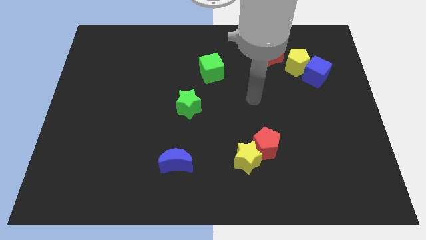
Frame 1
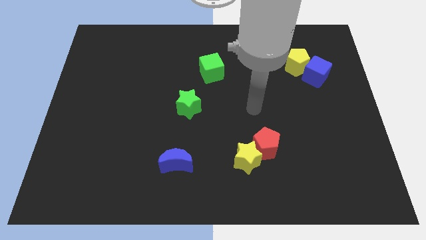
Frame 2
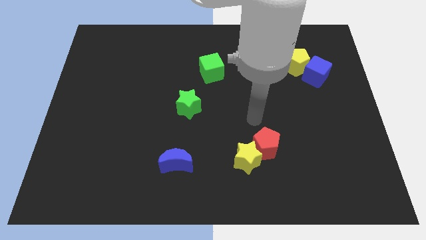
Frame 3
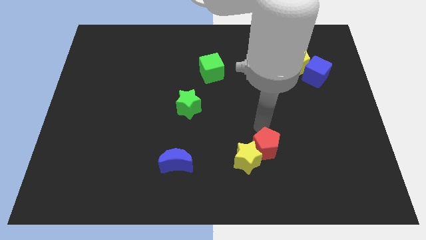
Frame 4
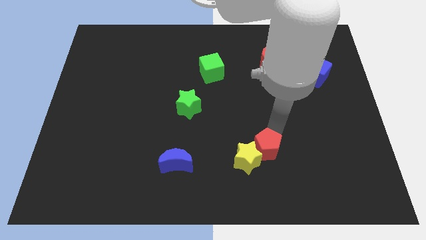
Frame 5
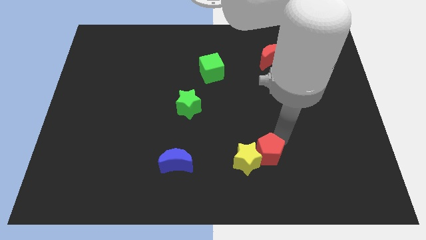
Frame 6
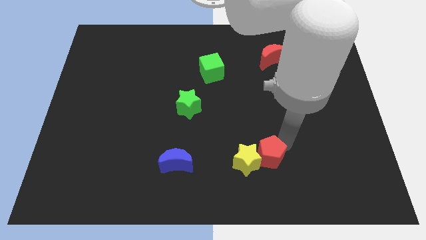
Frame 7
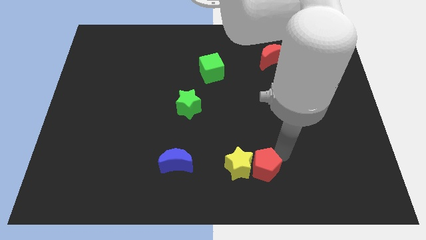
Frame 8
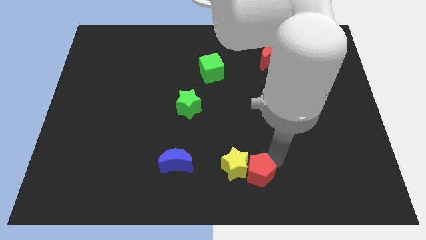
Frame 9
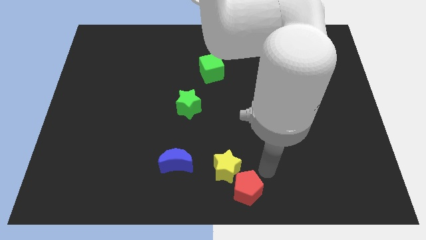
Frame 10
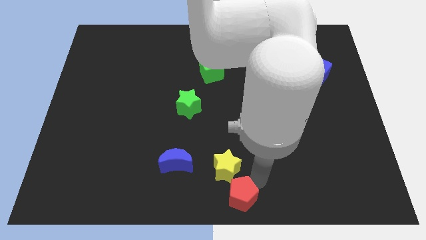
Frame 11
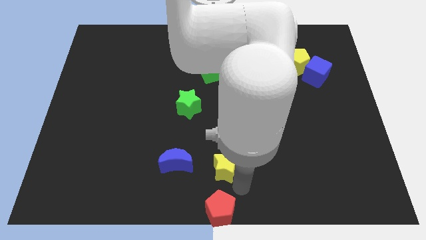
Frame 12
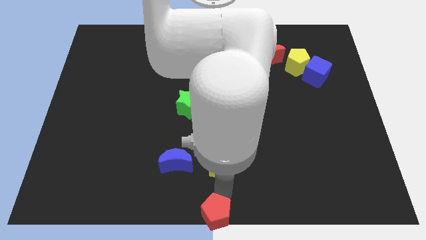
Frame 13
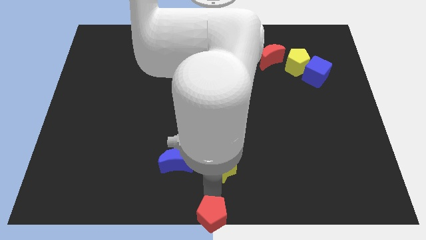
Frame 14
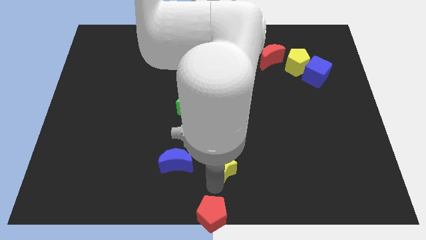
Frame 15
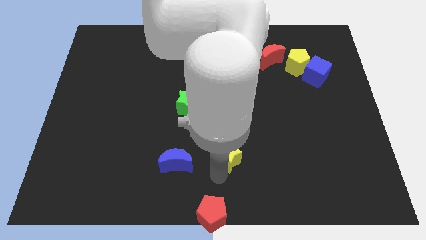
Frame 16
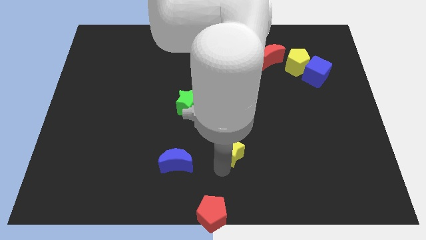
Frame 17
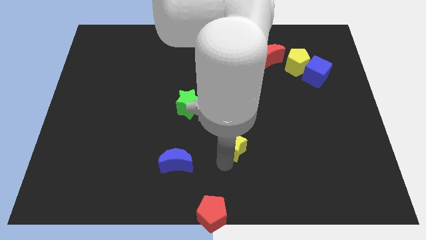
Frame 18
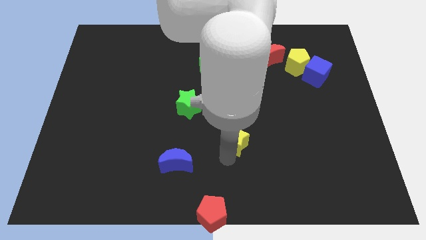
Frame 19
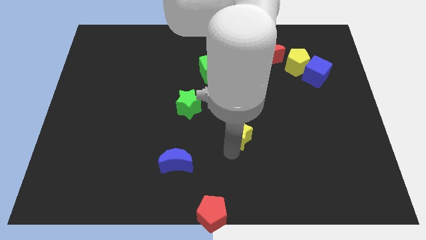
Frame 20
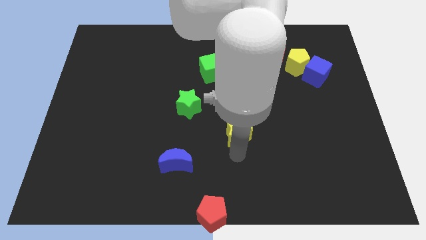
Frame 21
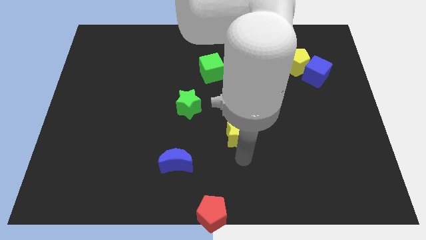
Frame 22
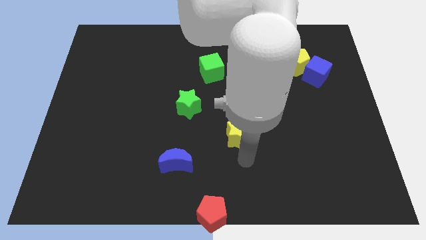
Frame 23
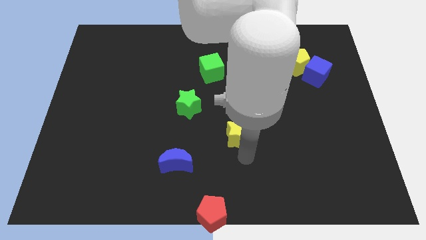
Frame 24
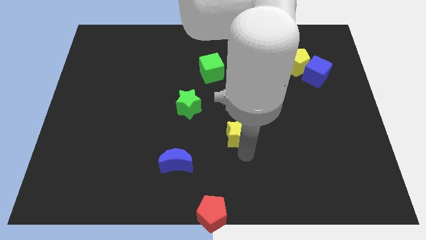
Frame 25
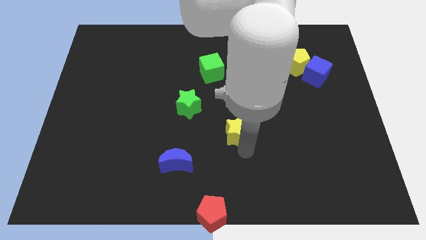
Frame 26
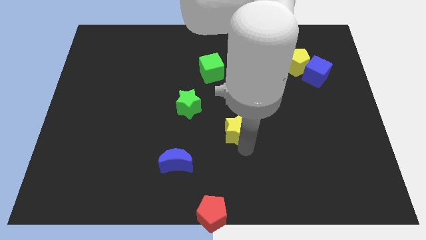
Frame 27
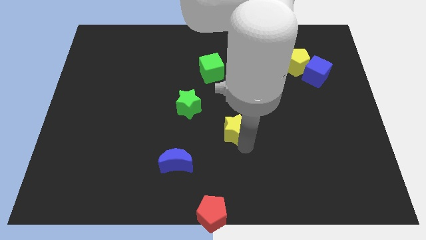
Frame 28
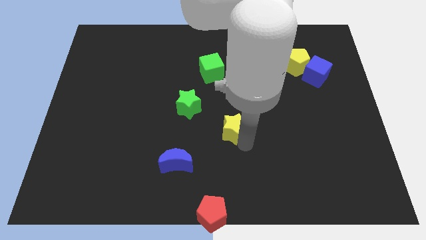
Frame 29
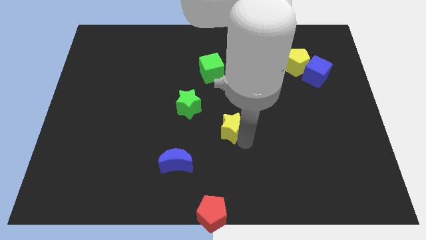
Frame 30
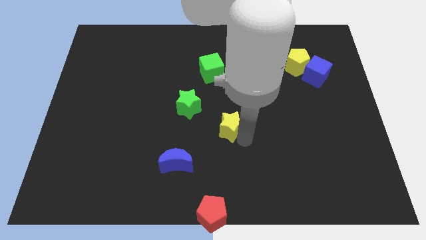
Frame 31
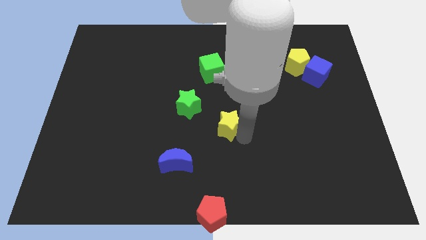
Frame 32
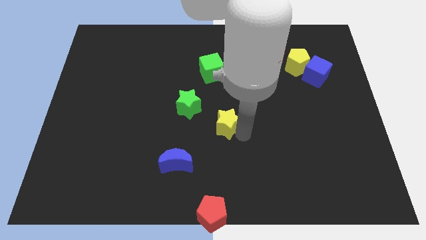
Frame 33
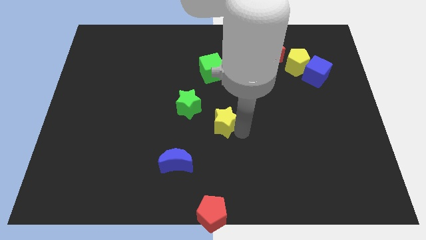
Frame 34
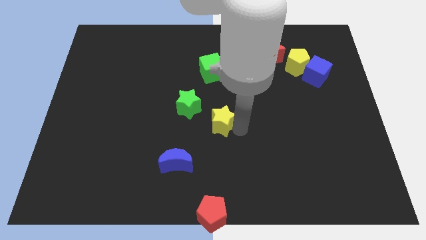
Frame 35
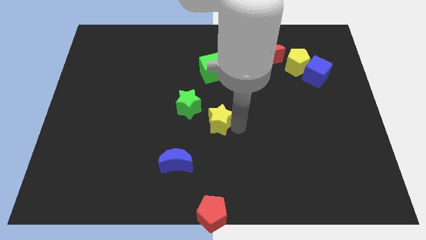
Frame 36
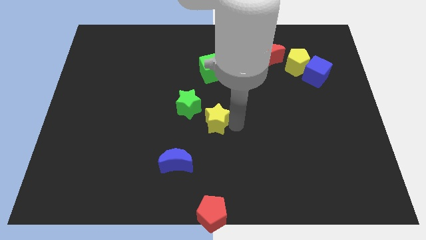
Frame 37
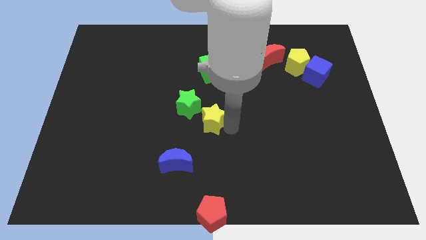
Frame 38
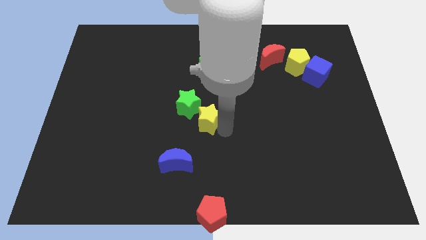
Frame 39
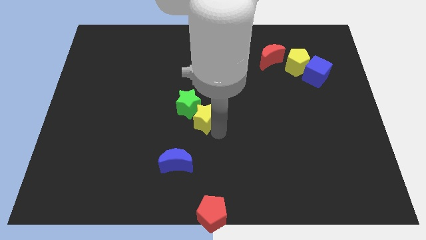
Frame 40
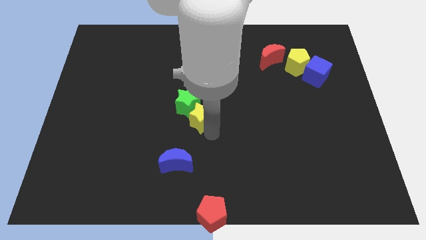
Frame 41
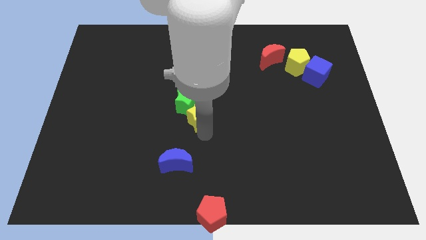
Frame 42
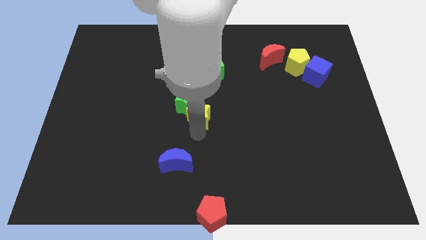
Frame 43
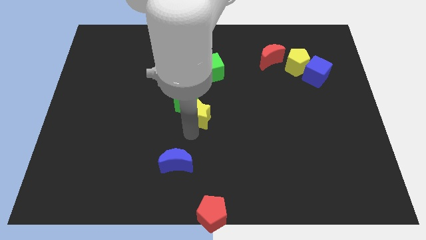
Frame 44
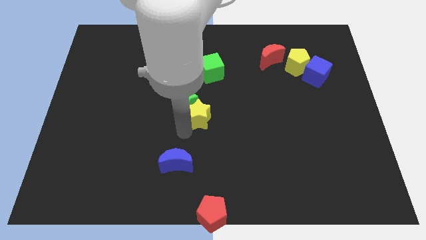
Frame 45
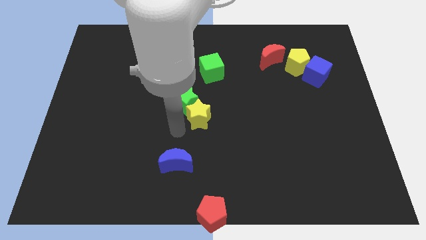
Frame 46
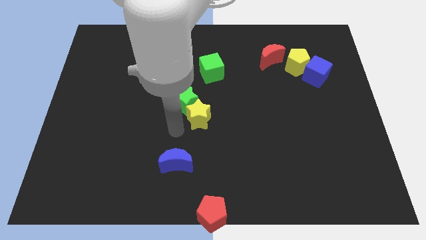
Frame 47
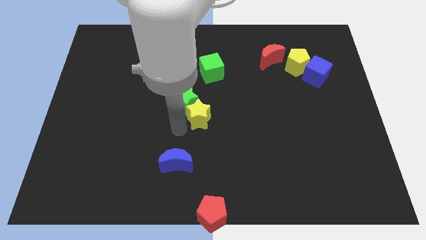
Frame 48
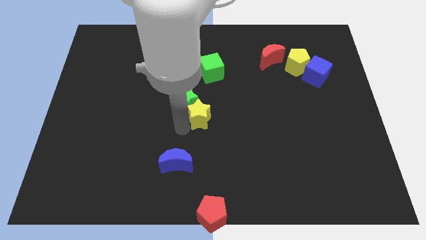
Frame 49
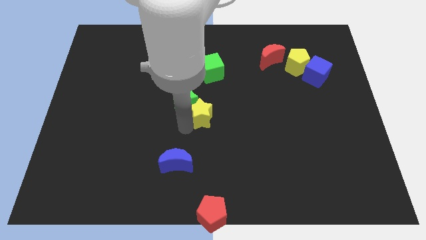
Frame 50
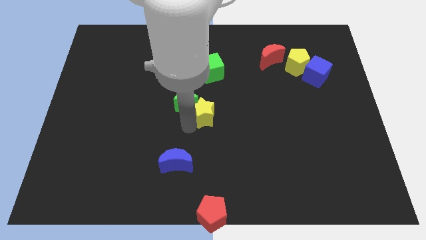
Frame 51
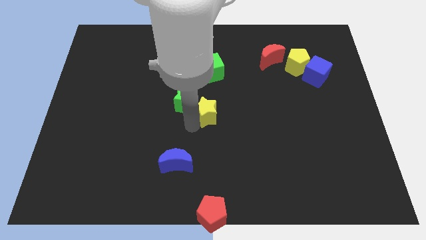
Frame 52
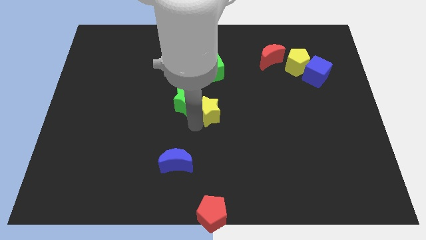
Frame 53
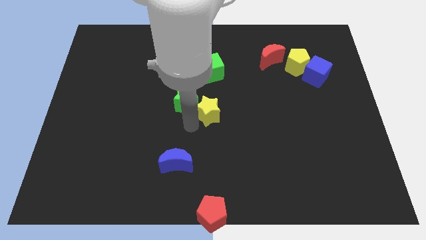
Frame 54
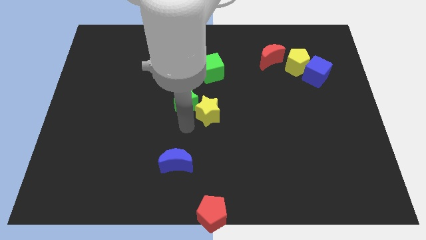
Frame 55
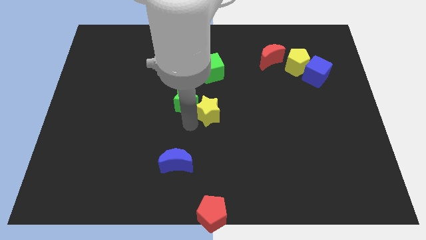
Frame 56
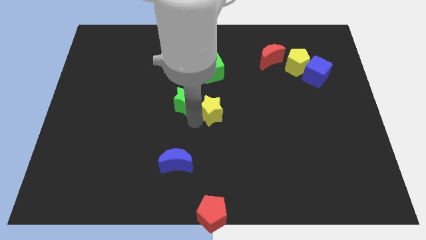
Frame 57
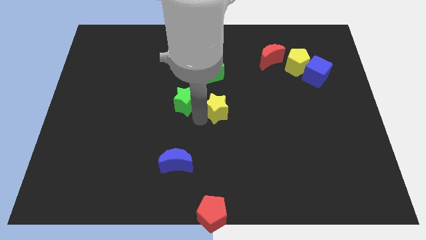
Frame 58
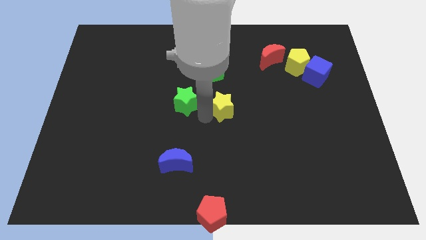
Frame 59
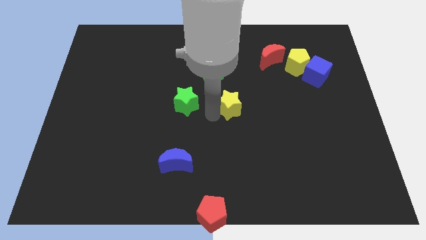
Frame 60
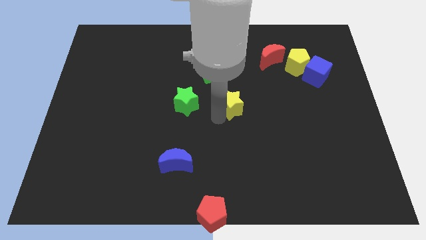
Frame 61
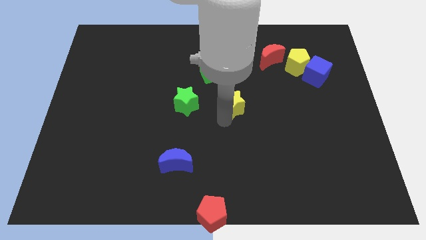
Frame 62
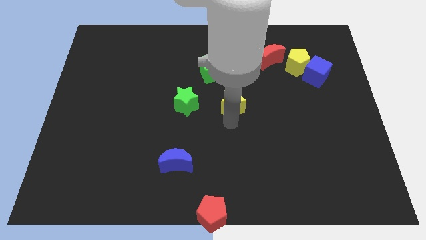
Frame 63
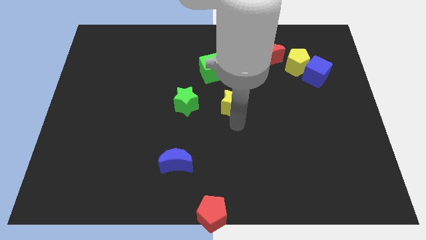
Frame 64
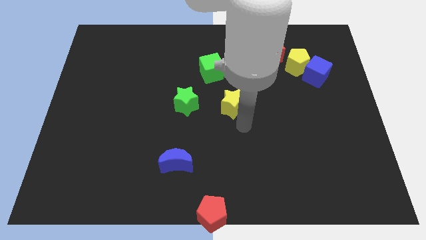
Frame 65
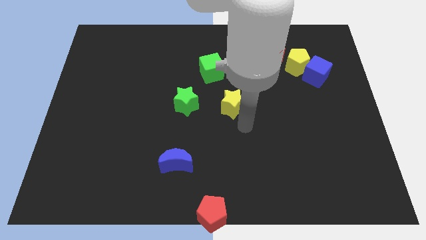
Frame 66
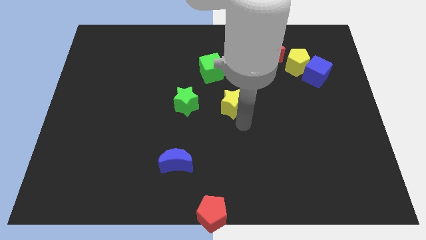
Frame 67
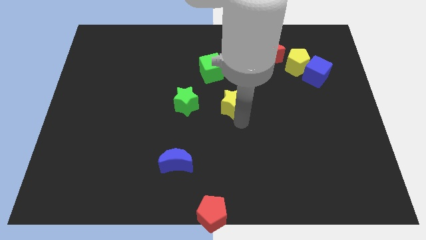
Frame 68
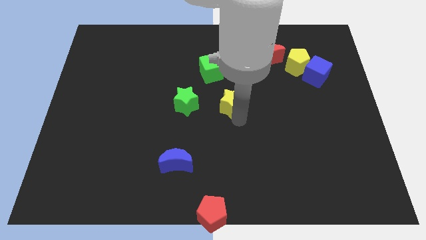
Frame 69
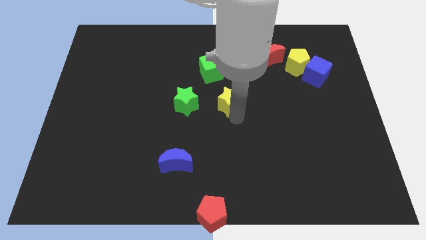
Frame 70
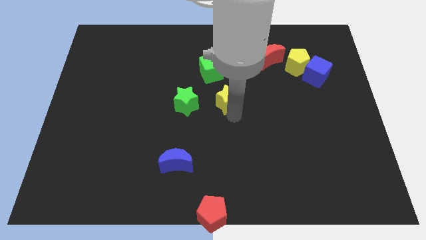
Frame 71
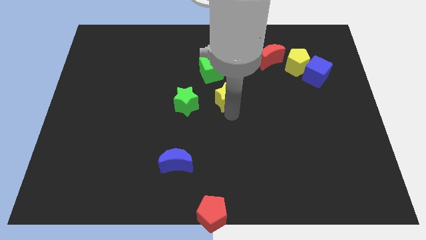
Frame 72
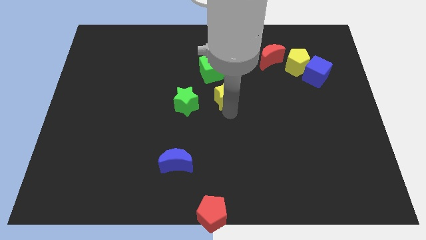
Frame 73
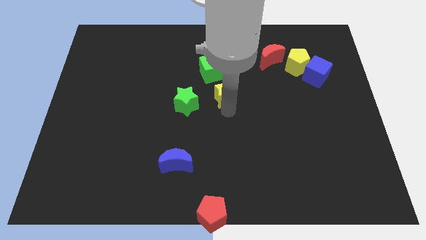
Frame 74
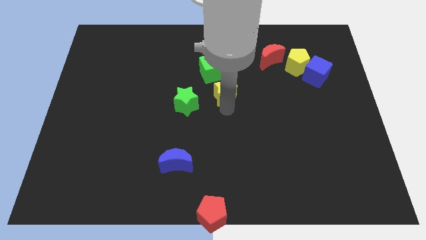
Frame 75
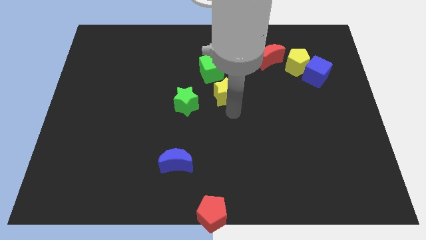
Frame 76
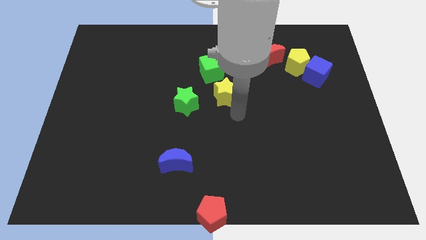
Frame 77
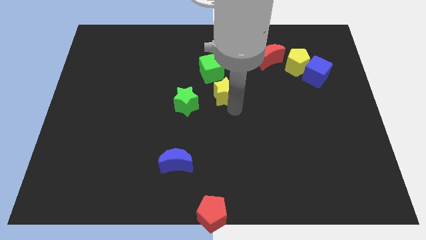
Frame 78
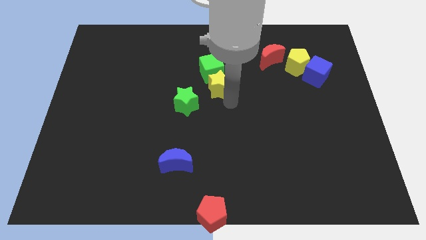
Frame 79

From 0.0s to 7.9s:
slide the yellow star towards the green cube
